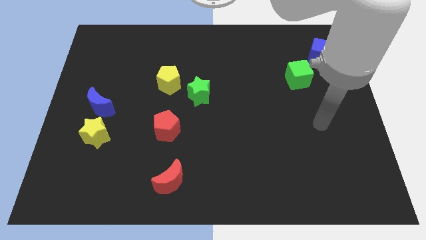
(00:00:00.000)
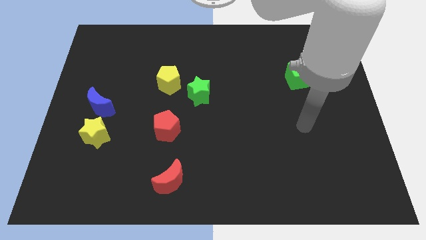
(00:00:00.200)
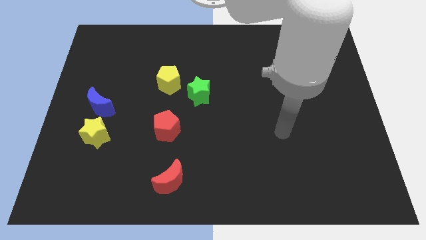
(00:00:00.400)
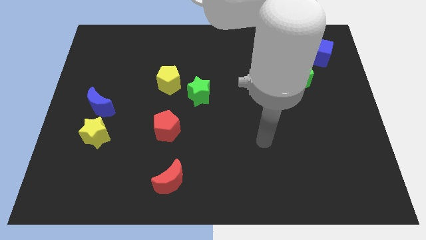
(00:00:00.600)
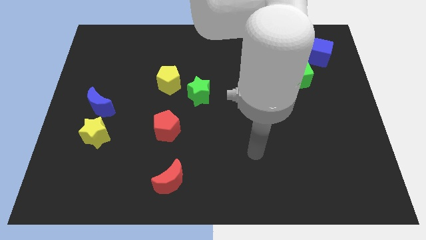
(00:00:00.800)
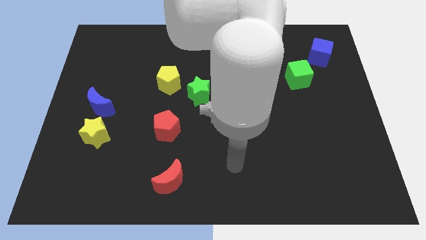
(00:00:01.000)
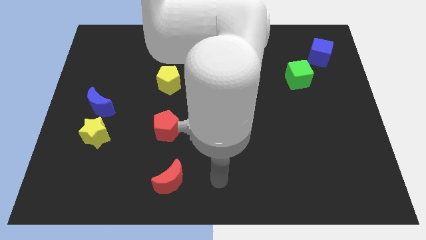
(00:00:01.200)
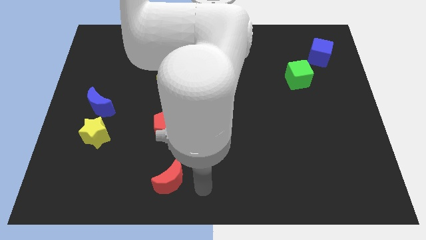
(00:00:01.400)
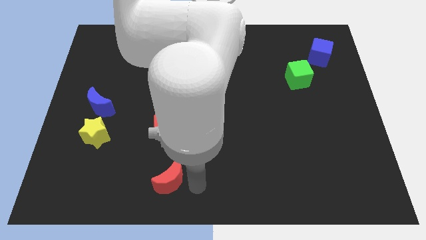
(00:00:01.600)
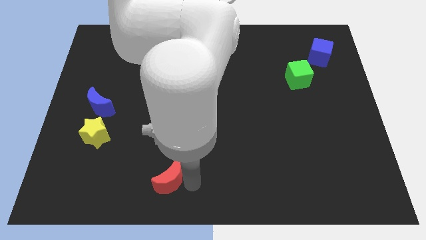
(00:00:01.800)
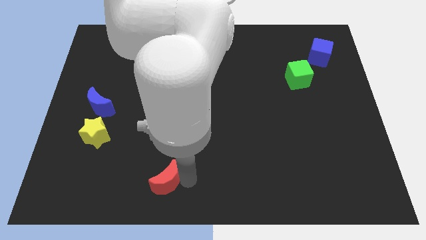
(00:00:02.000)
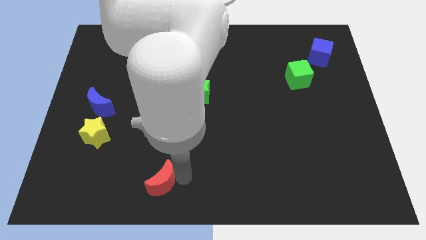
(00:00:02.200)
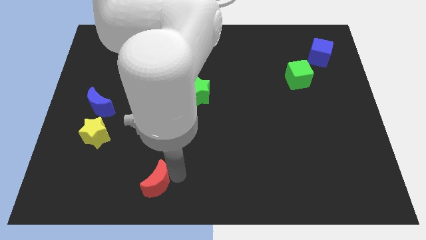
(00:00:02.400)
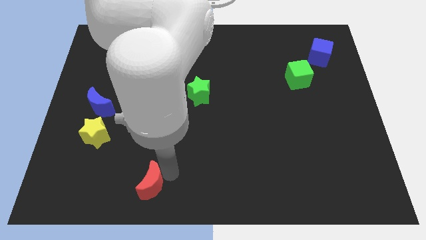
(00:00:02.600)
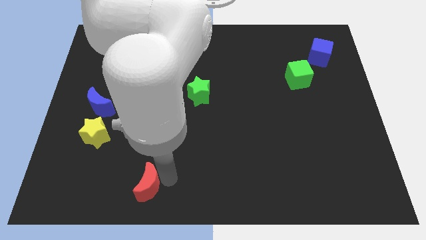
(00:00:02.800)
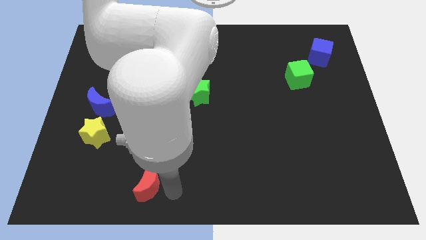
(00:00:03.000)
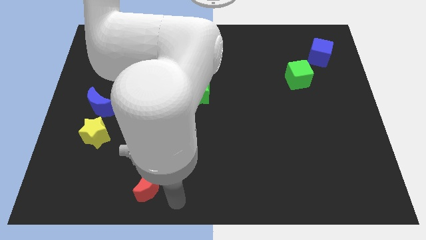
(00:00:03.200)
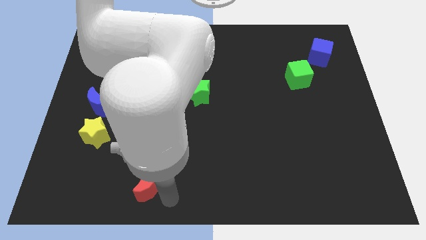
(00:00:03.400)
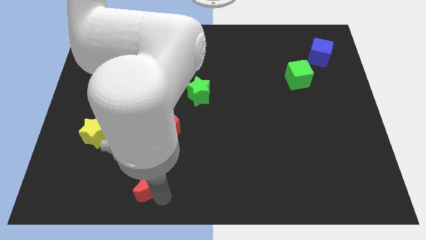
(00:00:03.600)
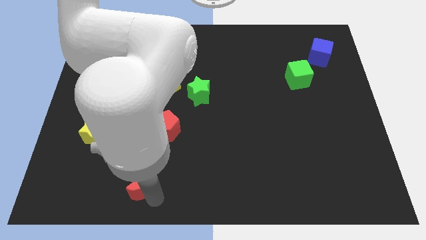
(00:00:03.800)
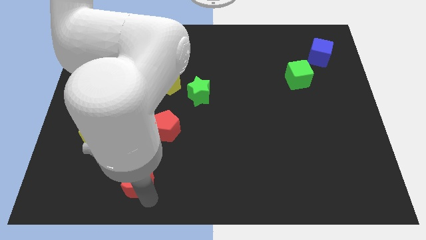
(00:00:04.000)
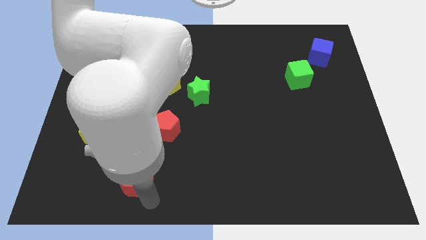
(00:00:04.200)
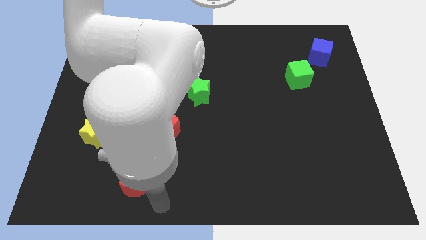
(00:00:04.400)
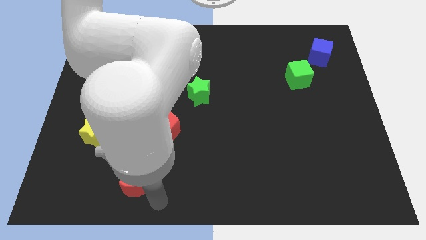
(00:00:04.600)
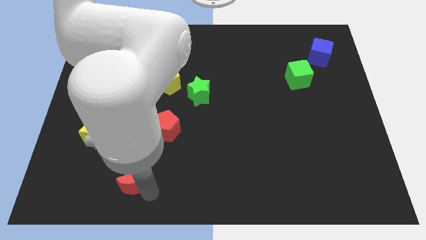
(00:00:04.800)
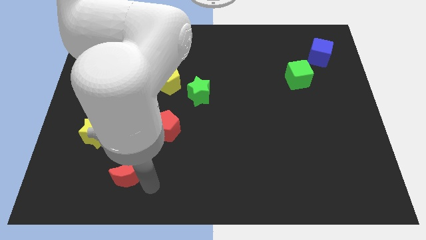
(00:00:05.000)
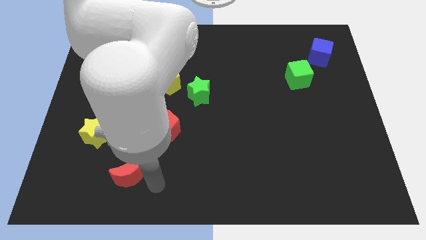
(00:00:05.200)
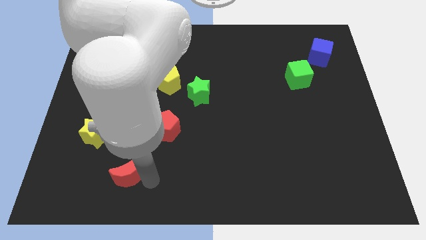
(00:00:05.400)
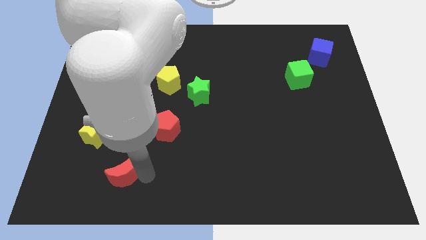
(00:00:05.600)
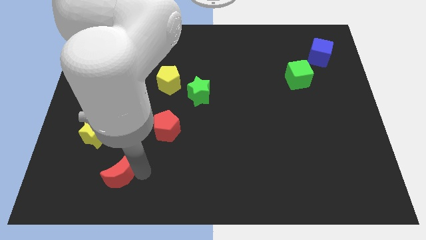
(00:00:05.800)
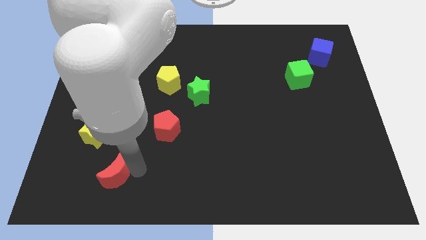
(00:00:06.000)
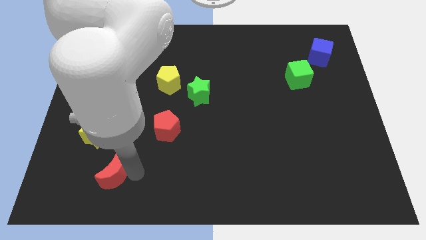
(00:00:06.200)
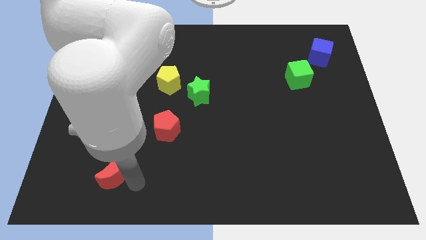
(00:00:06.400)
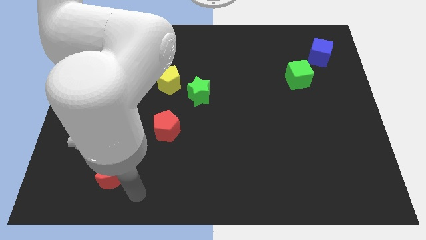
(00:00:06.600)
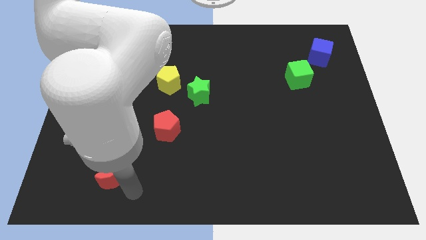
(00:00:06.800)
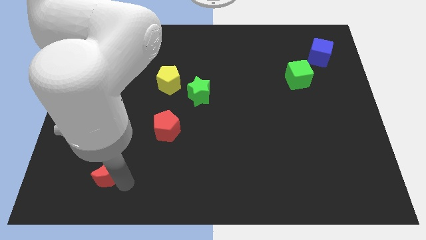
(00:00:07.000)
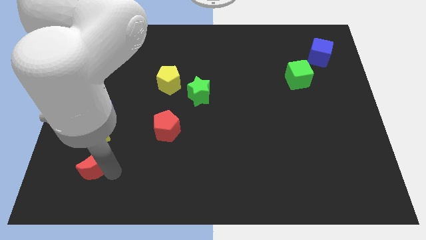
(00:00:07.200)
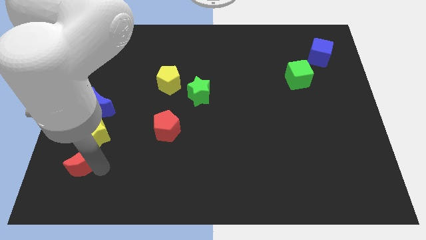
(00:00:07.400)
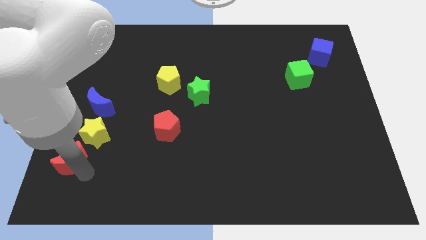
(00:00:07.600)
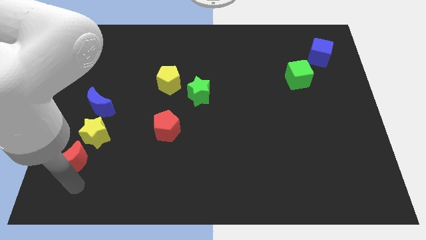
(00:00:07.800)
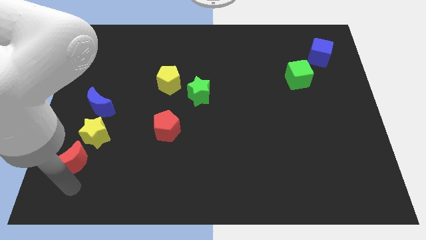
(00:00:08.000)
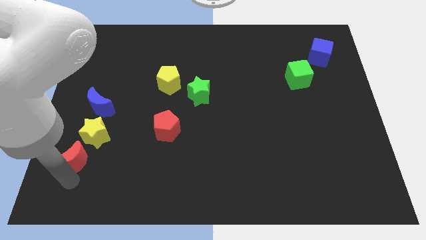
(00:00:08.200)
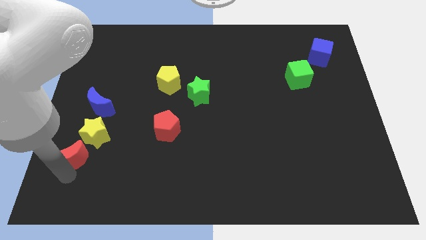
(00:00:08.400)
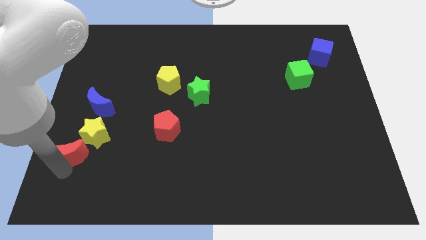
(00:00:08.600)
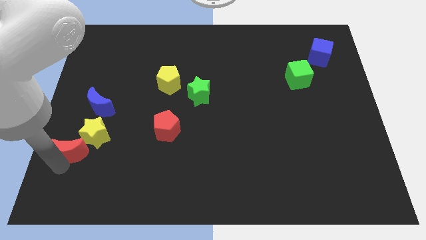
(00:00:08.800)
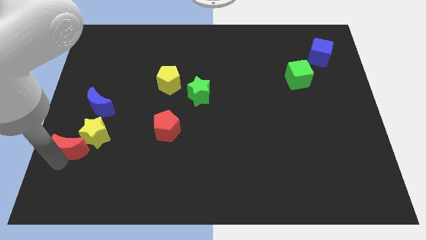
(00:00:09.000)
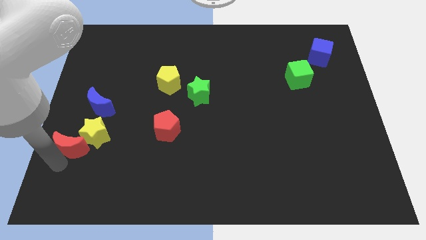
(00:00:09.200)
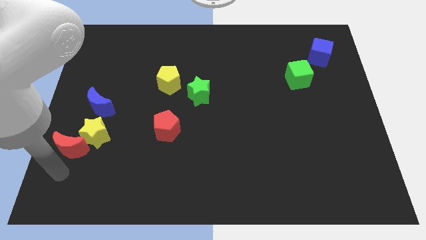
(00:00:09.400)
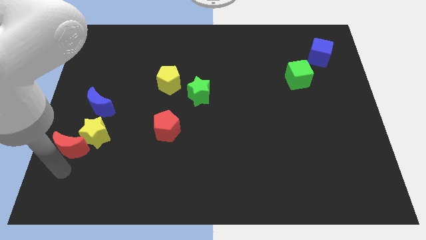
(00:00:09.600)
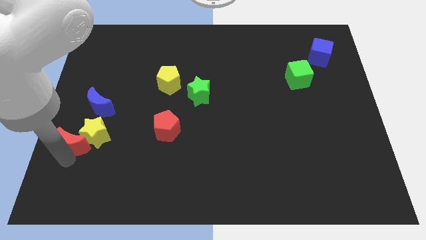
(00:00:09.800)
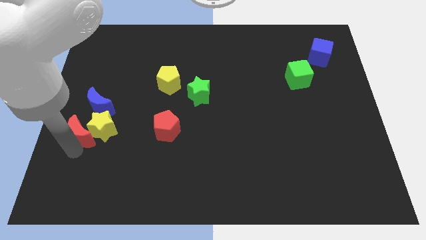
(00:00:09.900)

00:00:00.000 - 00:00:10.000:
put the red moon to the left side of the board

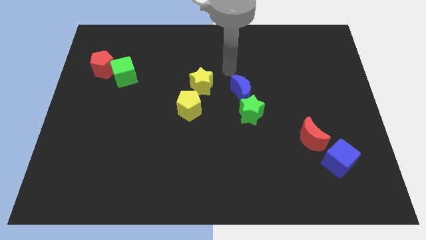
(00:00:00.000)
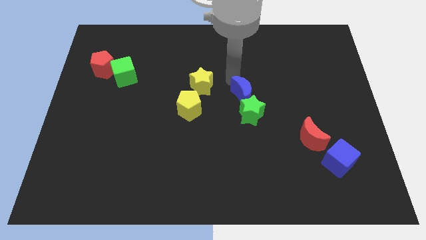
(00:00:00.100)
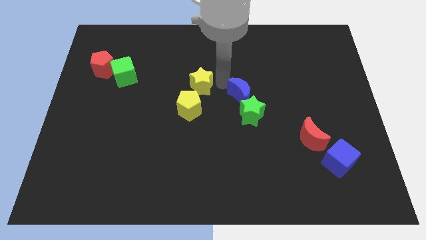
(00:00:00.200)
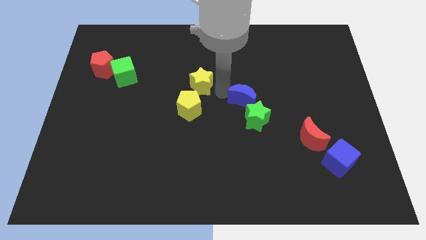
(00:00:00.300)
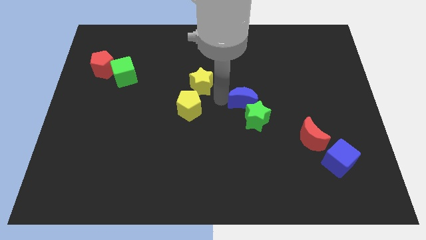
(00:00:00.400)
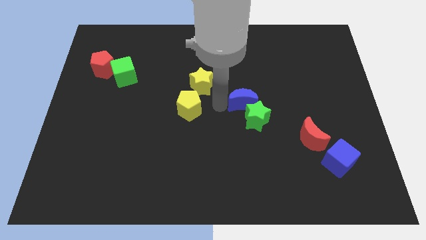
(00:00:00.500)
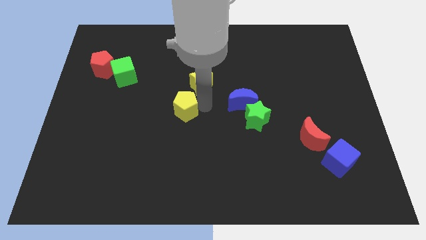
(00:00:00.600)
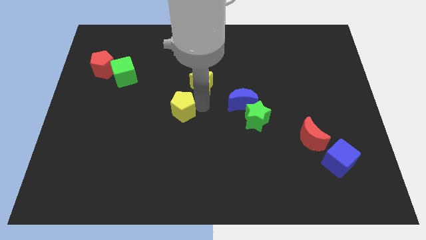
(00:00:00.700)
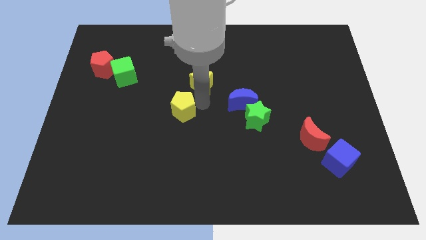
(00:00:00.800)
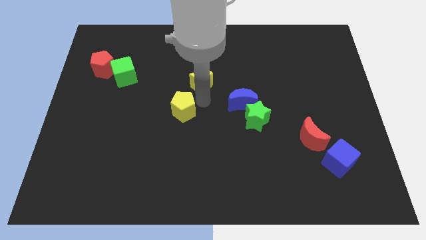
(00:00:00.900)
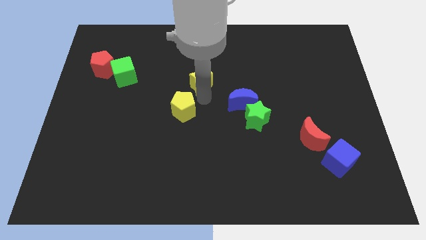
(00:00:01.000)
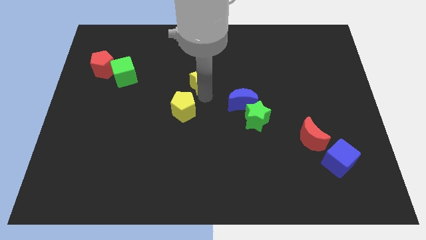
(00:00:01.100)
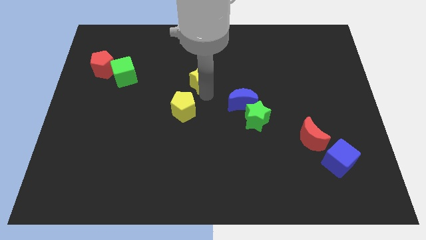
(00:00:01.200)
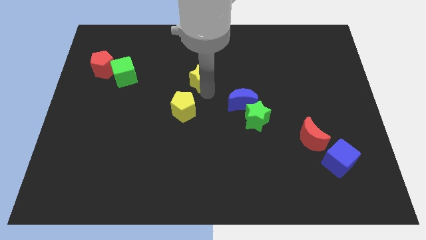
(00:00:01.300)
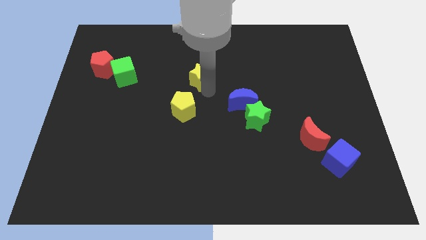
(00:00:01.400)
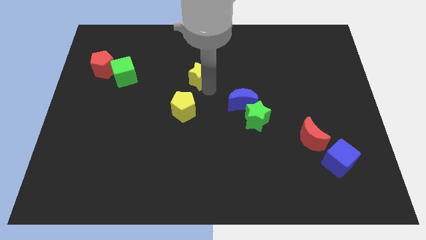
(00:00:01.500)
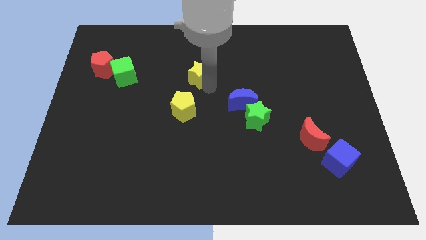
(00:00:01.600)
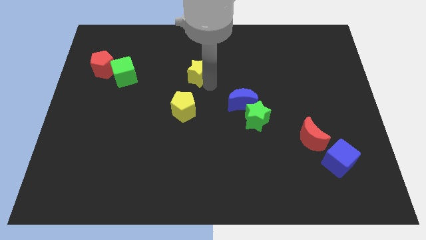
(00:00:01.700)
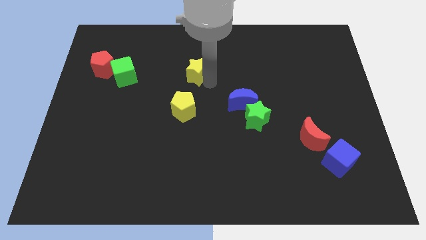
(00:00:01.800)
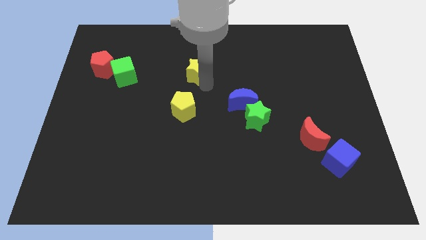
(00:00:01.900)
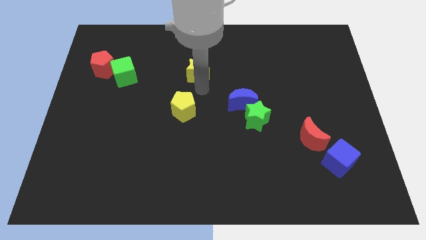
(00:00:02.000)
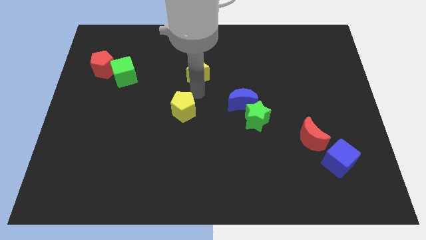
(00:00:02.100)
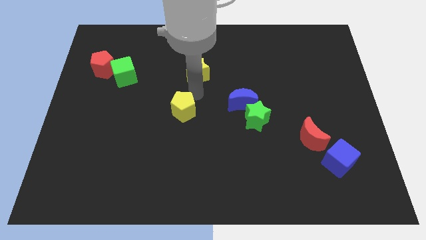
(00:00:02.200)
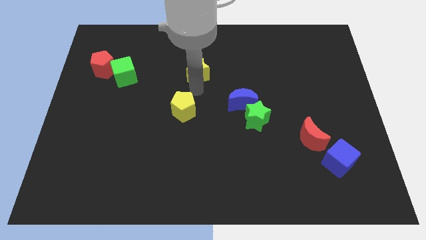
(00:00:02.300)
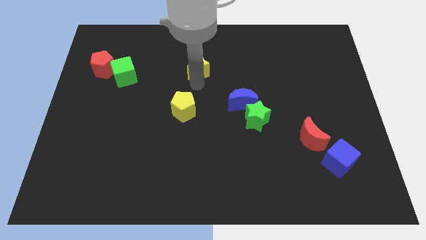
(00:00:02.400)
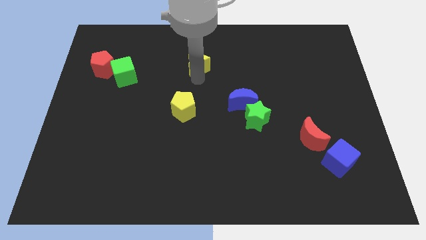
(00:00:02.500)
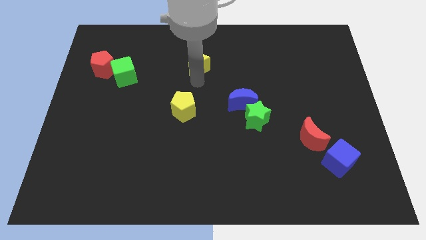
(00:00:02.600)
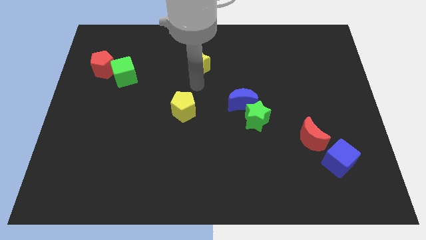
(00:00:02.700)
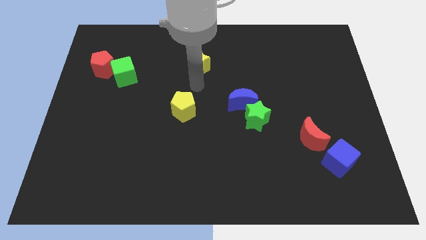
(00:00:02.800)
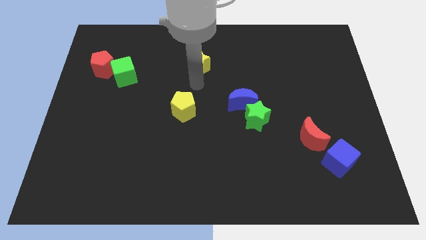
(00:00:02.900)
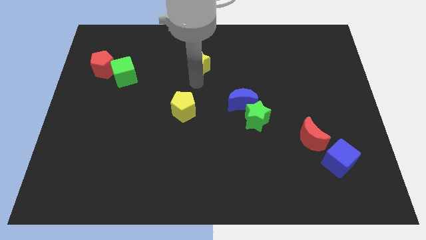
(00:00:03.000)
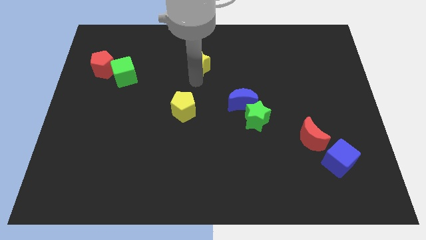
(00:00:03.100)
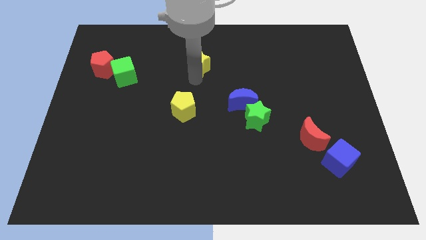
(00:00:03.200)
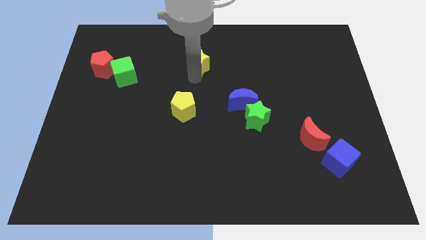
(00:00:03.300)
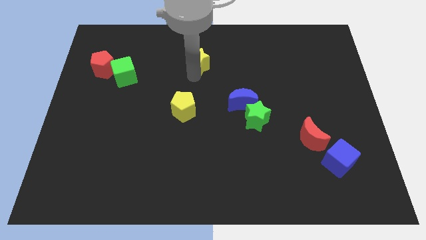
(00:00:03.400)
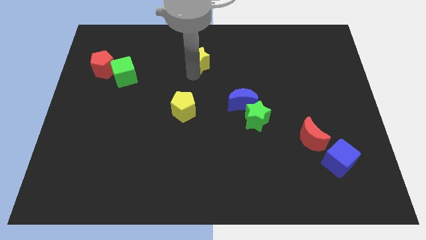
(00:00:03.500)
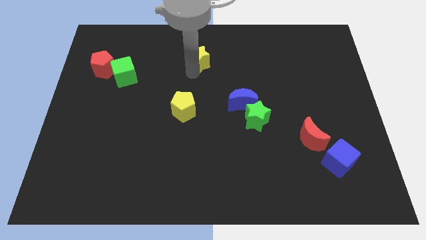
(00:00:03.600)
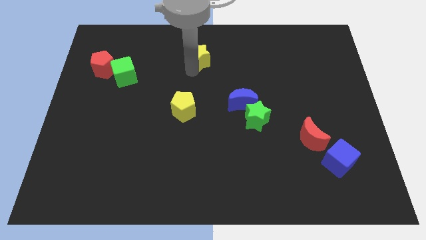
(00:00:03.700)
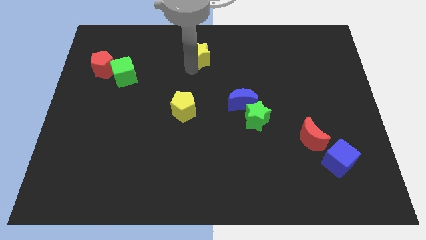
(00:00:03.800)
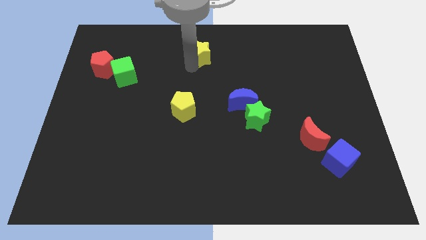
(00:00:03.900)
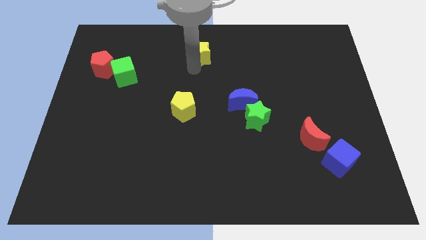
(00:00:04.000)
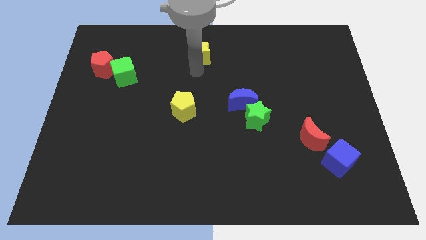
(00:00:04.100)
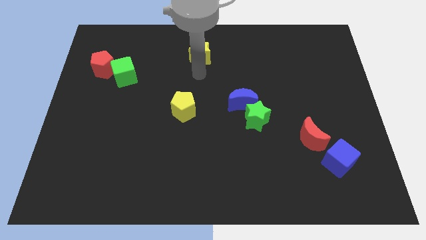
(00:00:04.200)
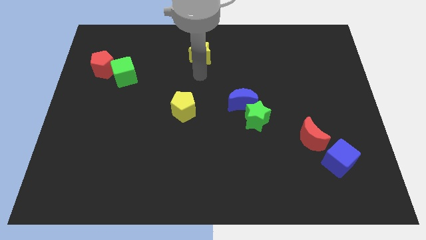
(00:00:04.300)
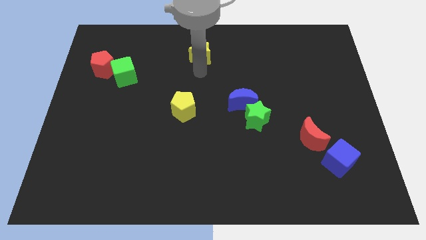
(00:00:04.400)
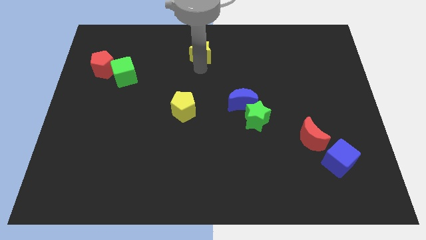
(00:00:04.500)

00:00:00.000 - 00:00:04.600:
slide the yellow star to the towards your base
